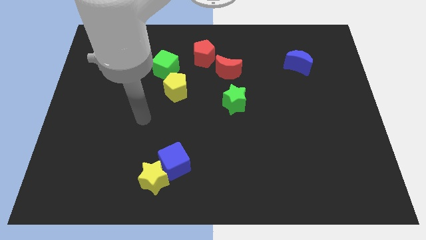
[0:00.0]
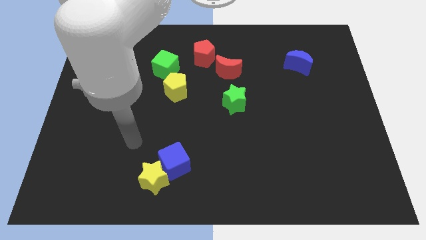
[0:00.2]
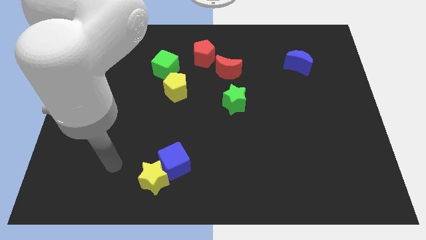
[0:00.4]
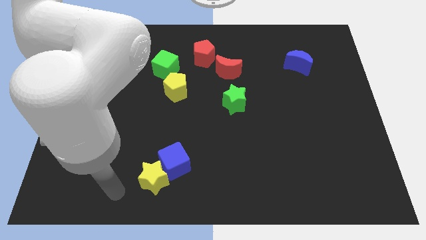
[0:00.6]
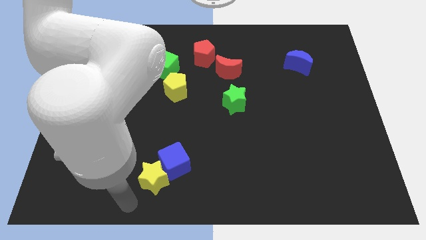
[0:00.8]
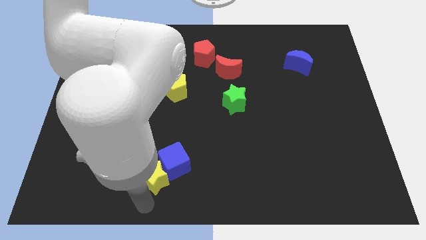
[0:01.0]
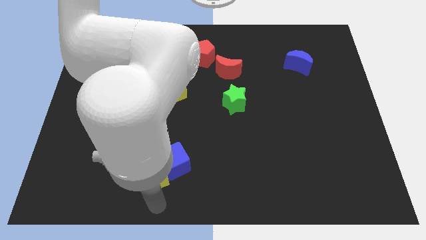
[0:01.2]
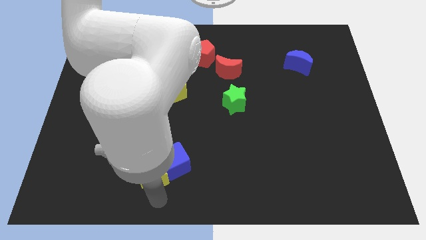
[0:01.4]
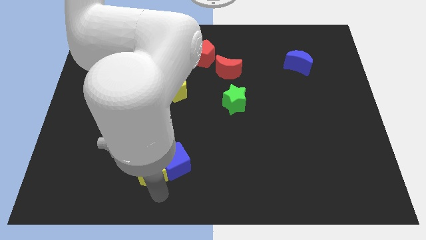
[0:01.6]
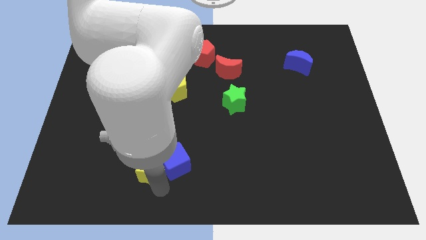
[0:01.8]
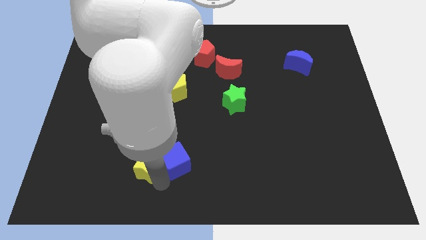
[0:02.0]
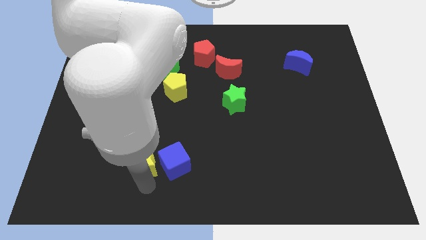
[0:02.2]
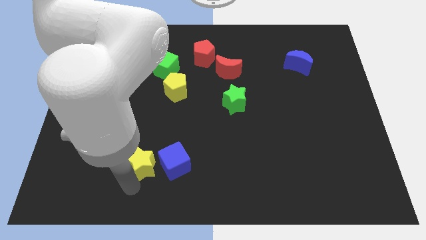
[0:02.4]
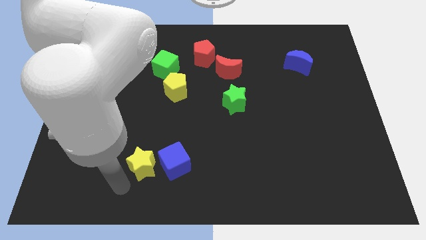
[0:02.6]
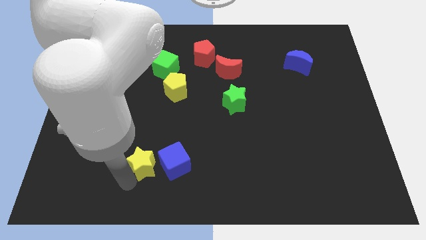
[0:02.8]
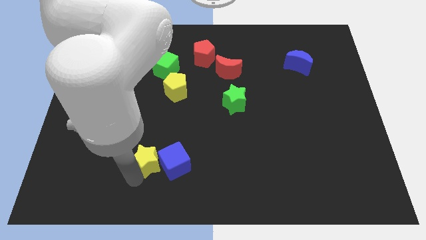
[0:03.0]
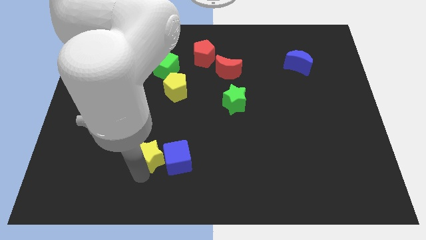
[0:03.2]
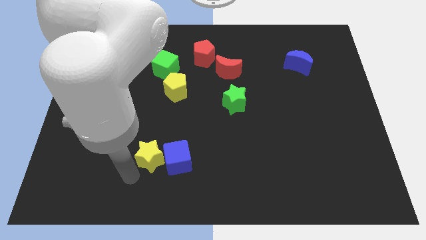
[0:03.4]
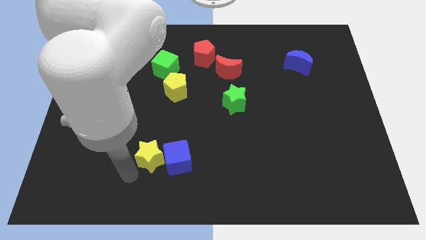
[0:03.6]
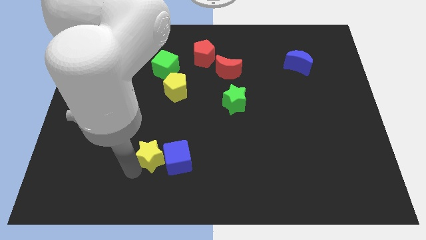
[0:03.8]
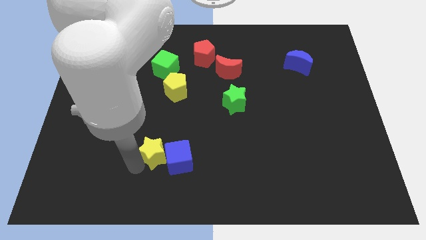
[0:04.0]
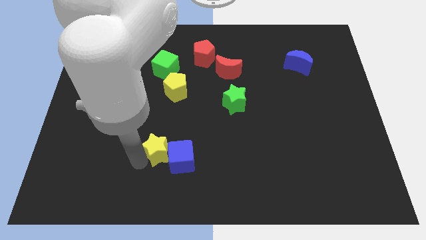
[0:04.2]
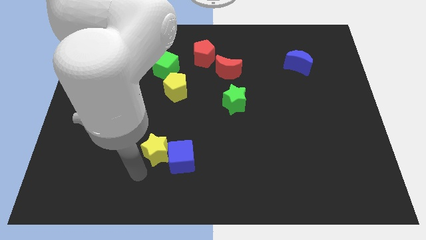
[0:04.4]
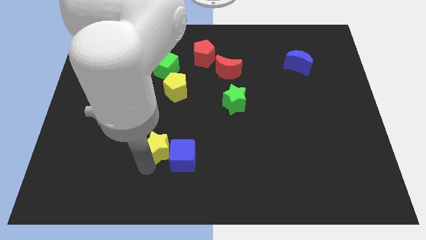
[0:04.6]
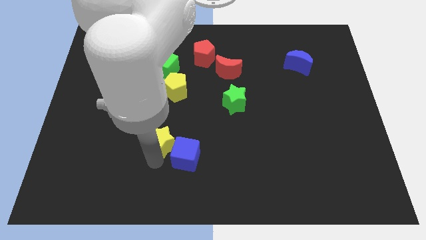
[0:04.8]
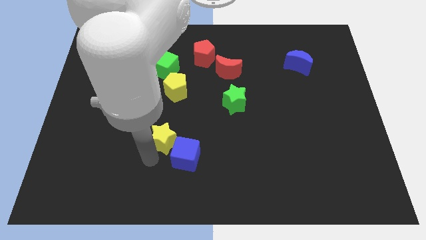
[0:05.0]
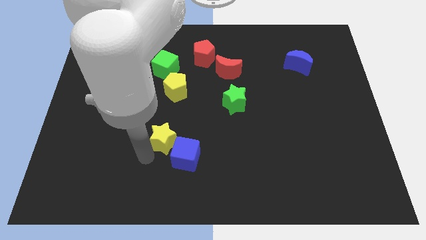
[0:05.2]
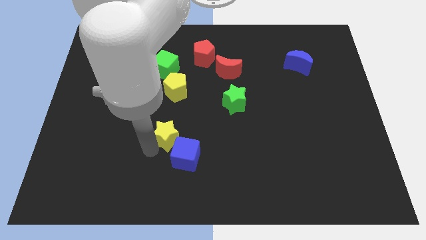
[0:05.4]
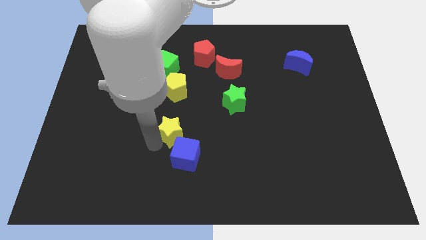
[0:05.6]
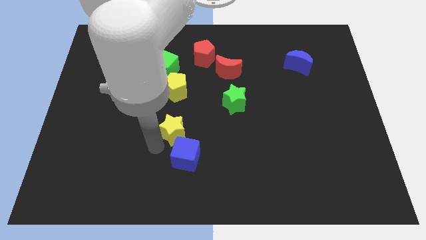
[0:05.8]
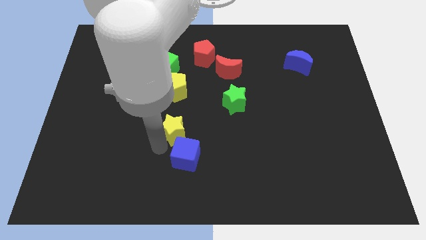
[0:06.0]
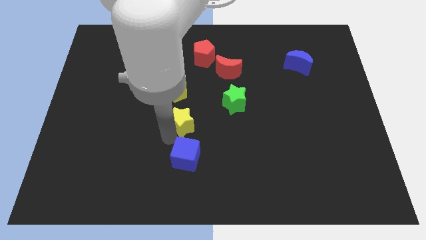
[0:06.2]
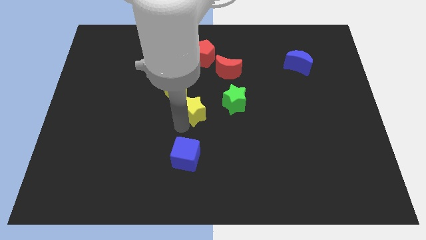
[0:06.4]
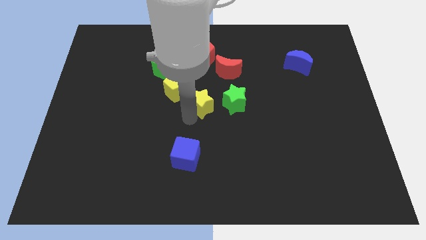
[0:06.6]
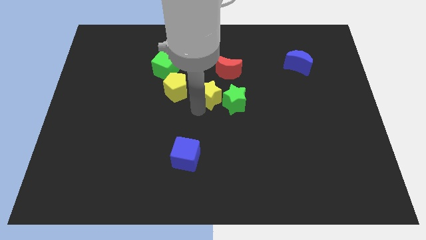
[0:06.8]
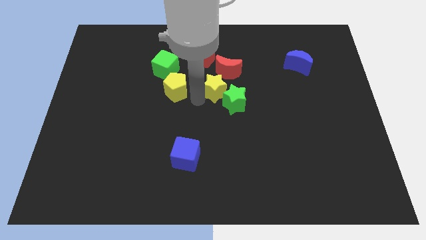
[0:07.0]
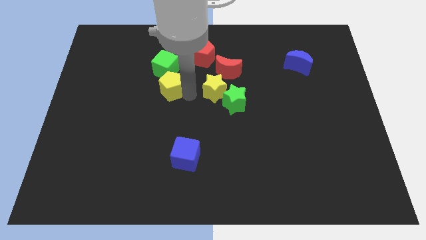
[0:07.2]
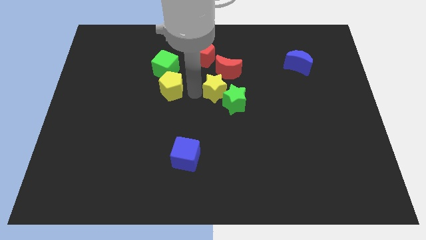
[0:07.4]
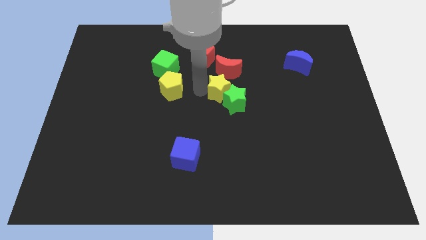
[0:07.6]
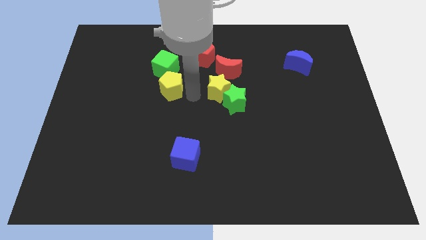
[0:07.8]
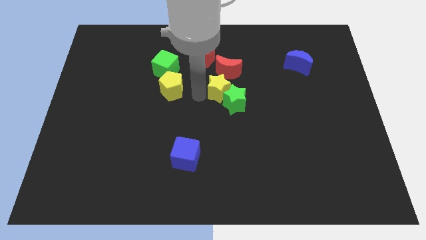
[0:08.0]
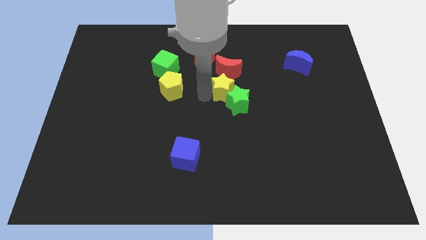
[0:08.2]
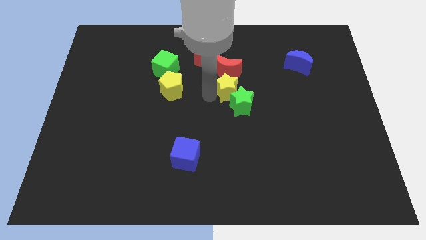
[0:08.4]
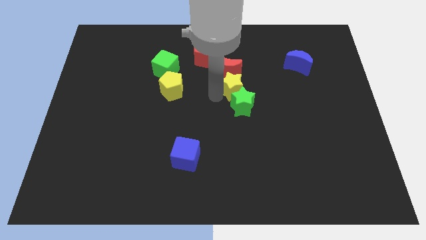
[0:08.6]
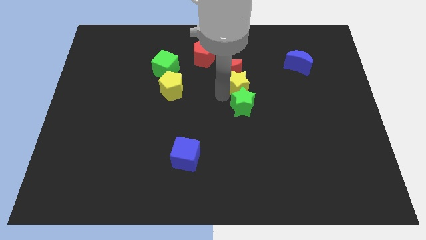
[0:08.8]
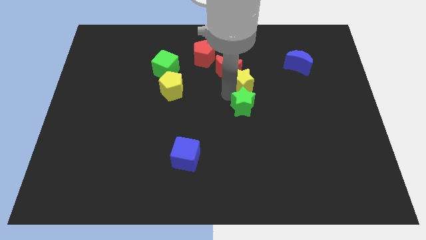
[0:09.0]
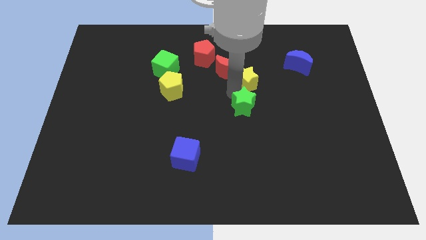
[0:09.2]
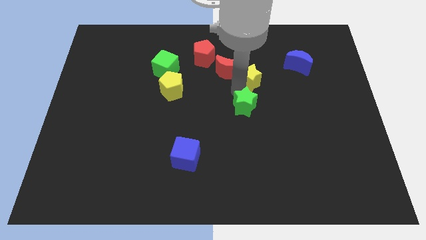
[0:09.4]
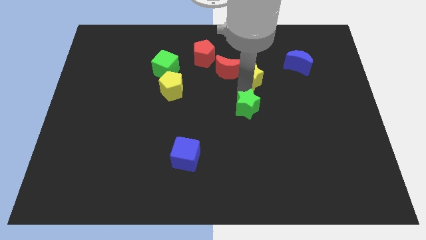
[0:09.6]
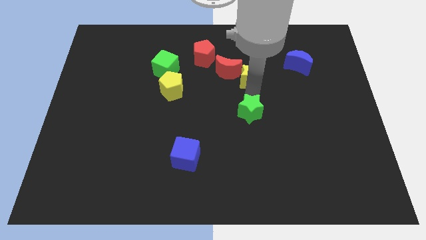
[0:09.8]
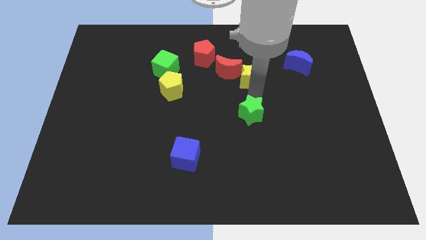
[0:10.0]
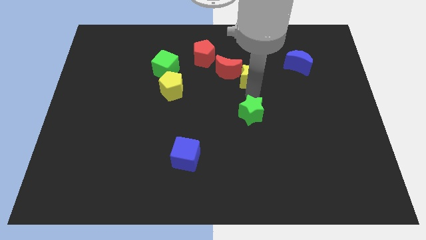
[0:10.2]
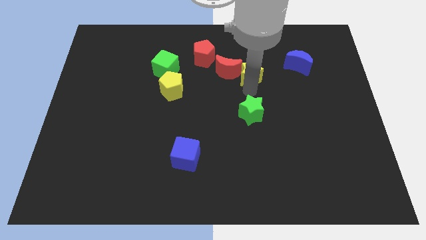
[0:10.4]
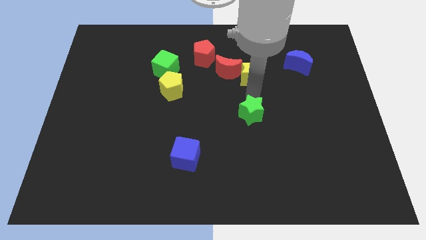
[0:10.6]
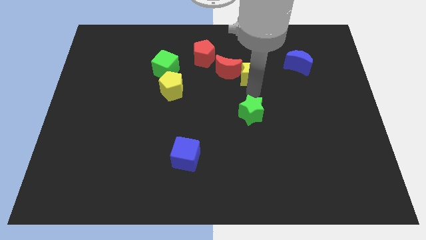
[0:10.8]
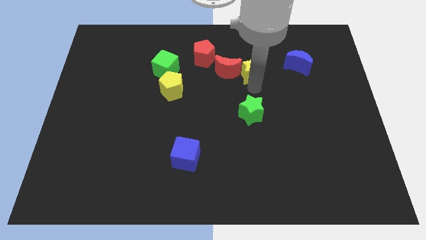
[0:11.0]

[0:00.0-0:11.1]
push the yellow star to the top right side of the red moon

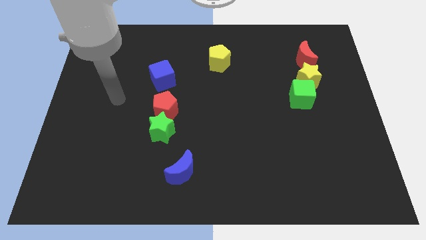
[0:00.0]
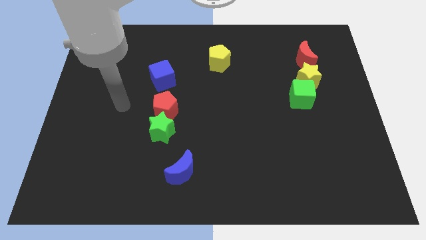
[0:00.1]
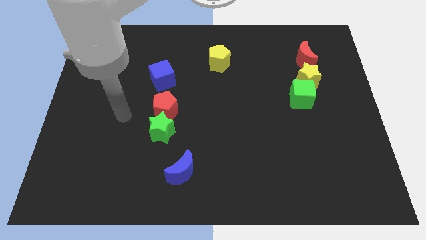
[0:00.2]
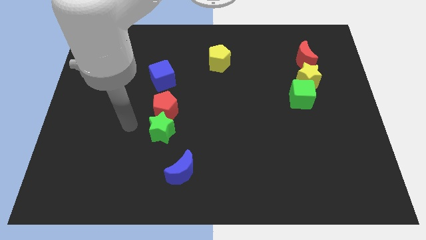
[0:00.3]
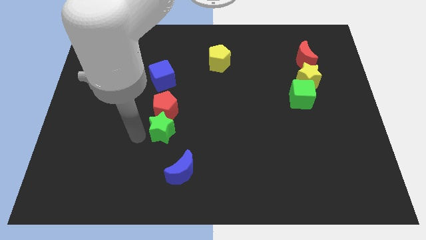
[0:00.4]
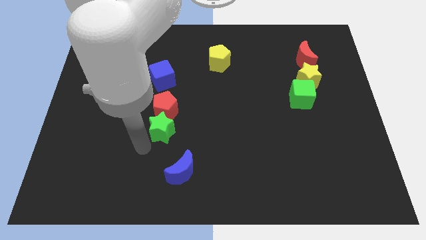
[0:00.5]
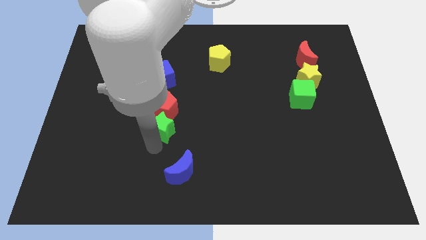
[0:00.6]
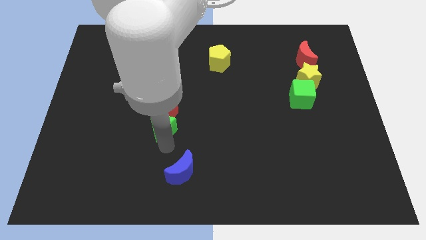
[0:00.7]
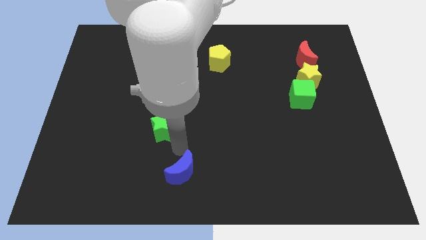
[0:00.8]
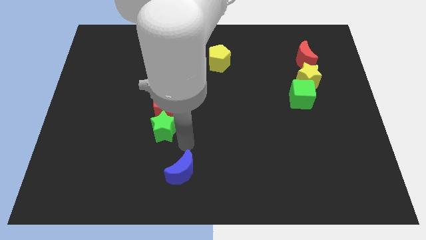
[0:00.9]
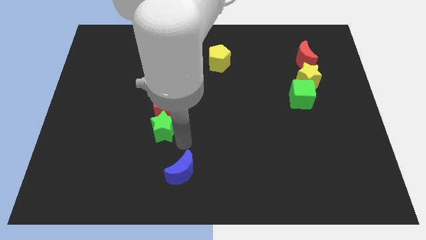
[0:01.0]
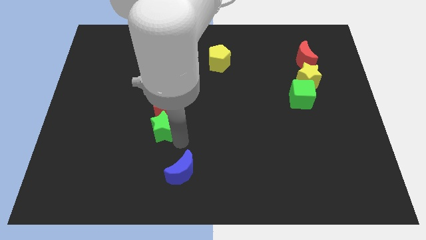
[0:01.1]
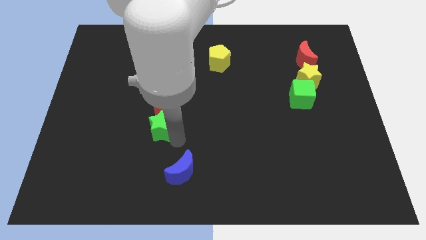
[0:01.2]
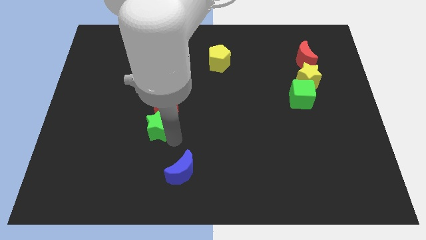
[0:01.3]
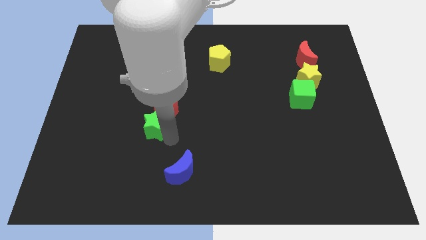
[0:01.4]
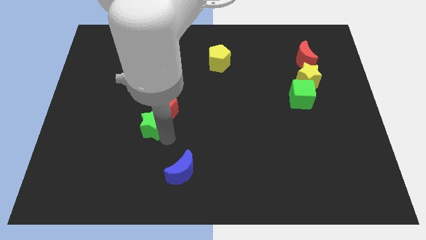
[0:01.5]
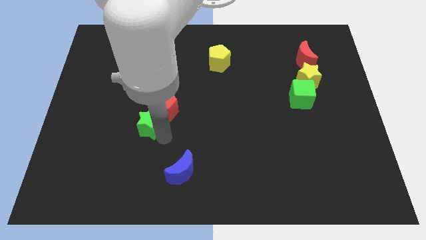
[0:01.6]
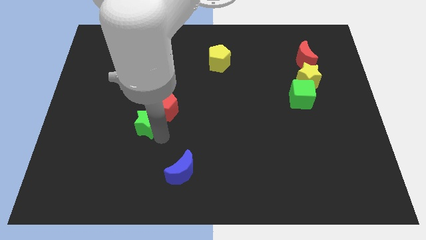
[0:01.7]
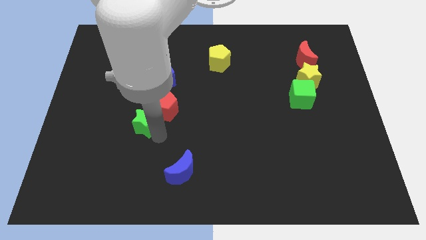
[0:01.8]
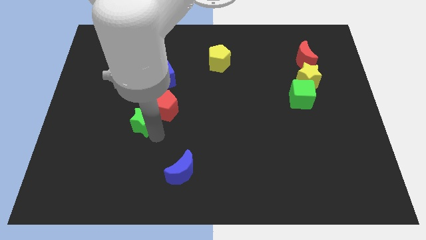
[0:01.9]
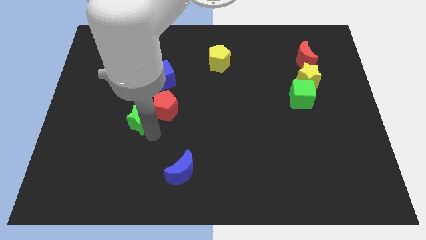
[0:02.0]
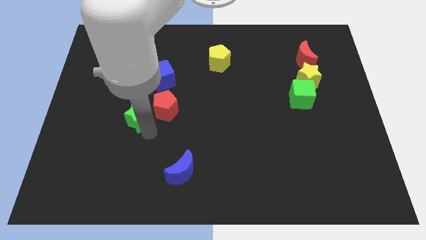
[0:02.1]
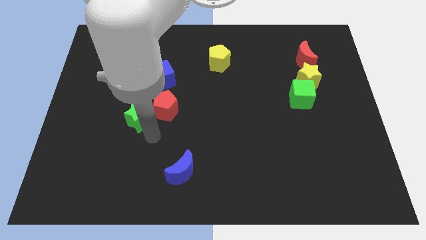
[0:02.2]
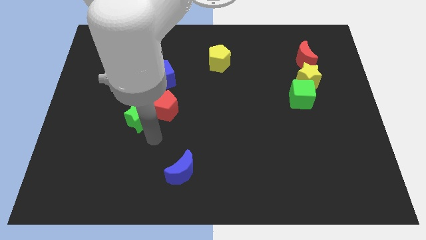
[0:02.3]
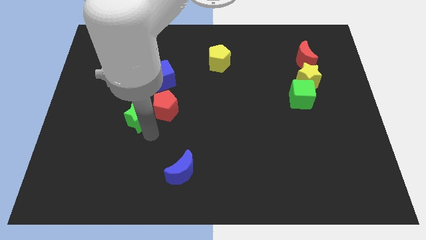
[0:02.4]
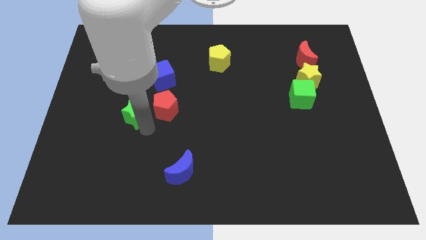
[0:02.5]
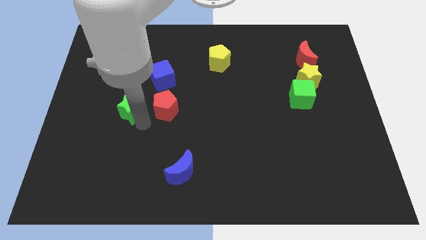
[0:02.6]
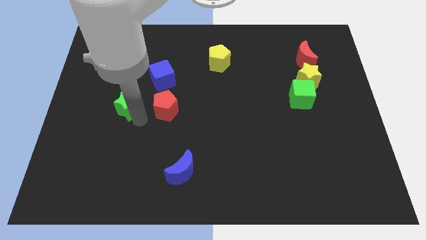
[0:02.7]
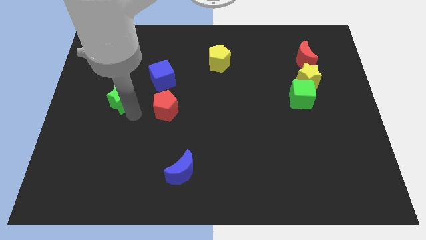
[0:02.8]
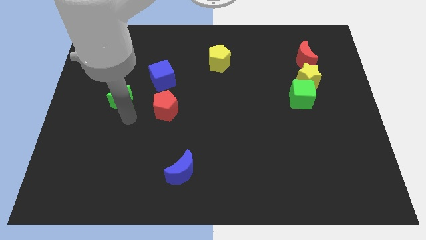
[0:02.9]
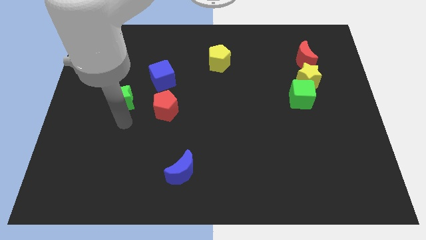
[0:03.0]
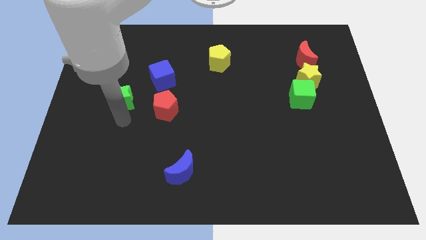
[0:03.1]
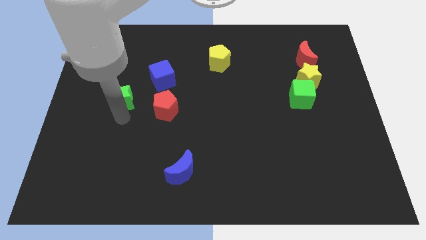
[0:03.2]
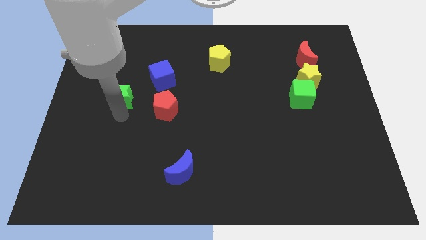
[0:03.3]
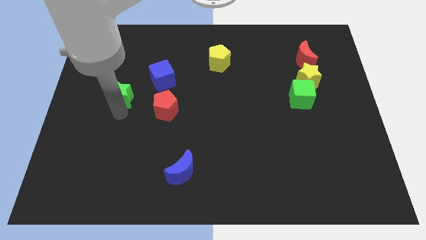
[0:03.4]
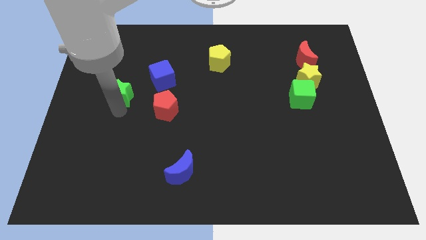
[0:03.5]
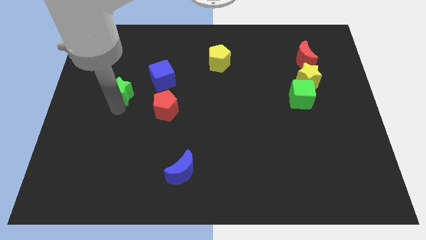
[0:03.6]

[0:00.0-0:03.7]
slide the green star just left of the blue cube
